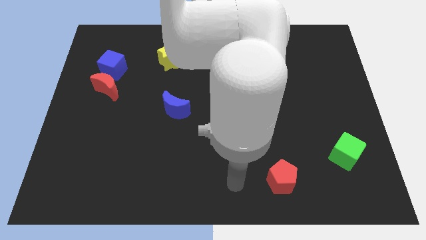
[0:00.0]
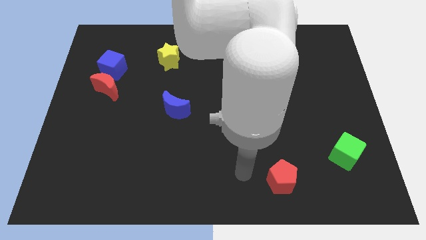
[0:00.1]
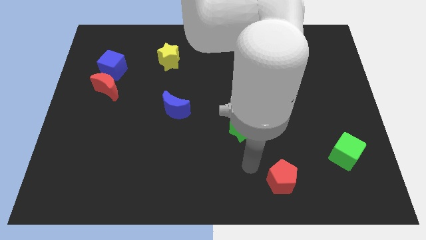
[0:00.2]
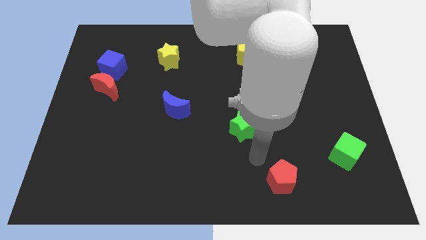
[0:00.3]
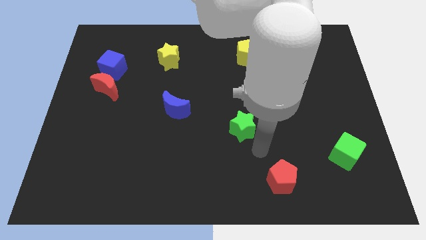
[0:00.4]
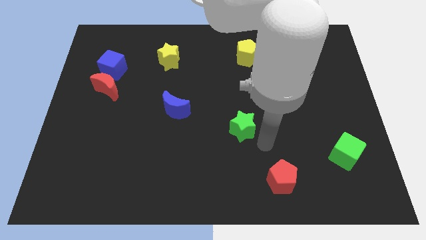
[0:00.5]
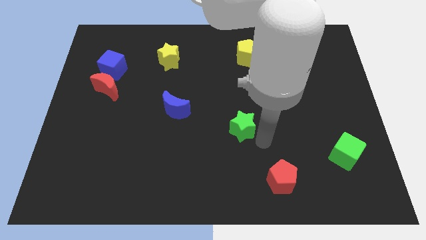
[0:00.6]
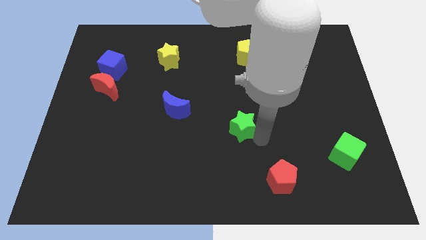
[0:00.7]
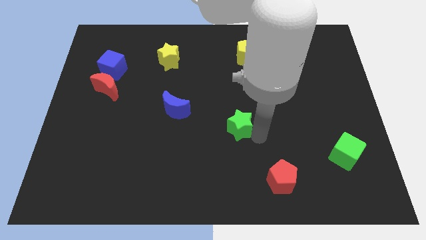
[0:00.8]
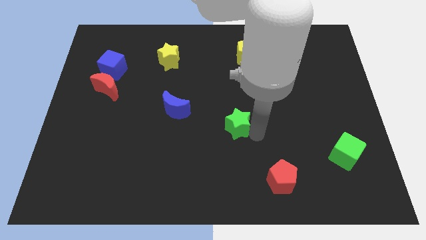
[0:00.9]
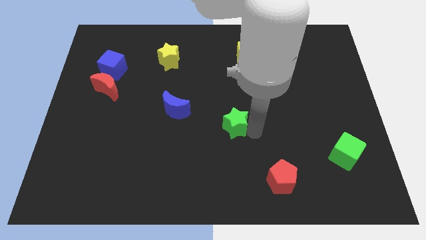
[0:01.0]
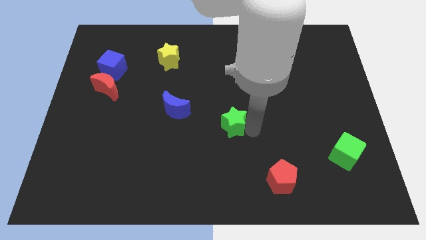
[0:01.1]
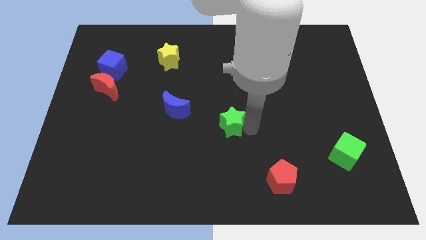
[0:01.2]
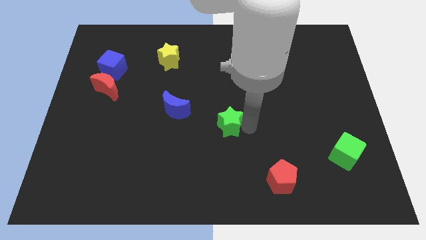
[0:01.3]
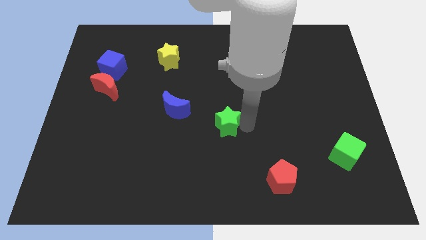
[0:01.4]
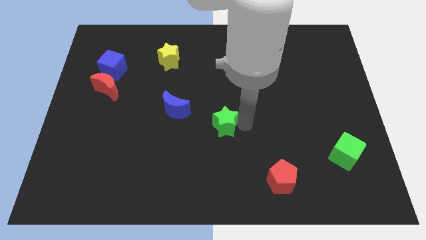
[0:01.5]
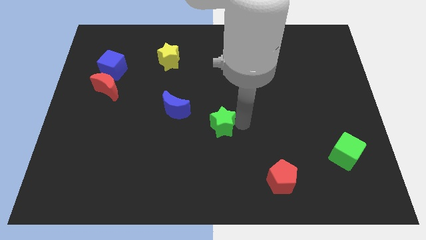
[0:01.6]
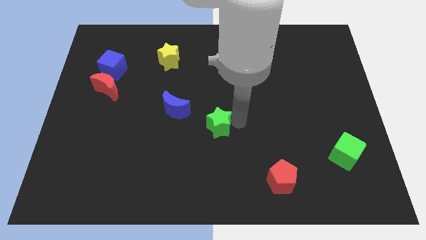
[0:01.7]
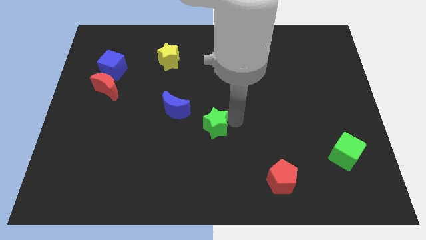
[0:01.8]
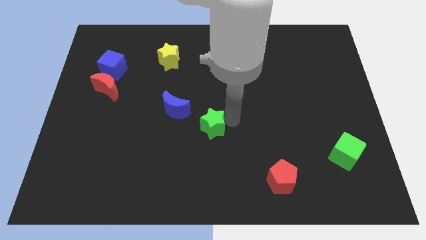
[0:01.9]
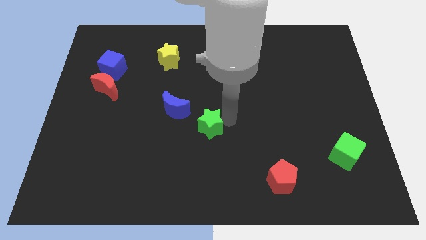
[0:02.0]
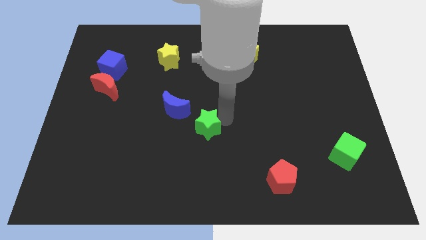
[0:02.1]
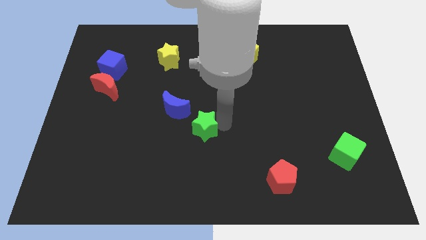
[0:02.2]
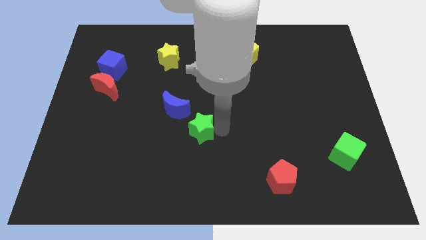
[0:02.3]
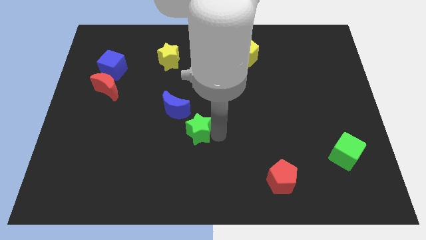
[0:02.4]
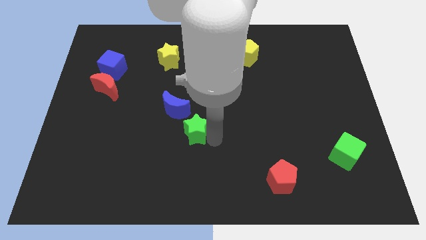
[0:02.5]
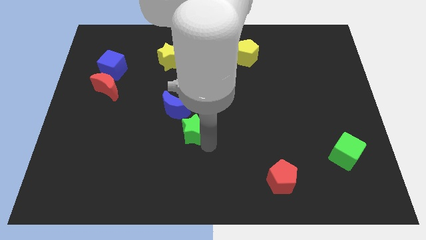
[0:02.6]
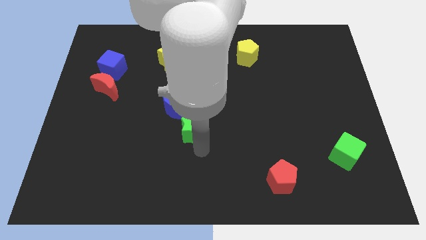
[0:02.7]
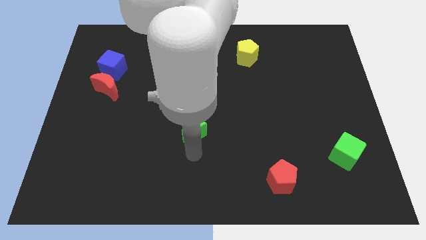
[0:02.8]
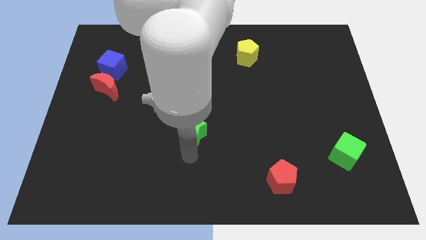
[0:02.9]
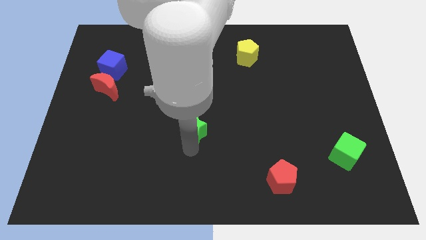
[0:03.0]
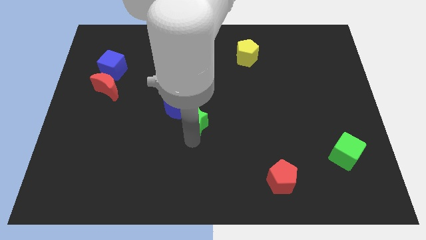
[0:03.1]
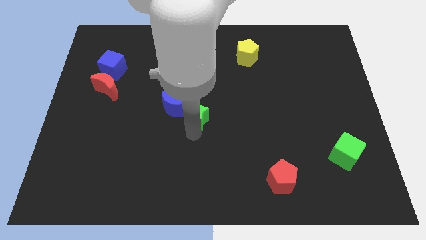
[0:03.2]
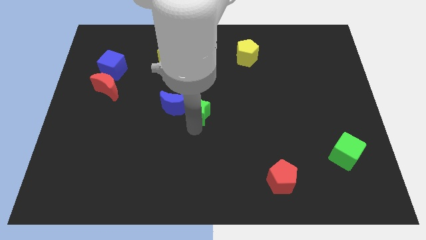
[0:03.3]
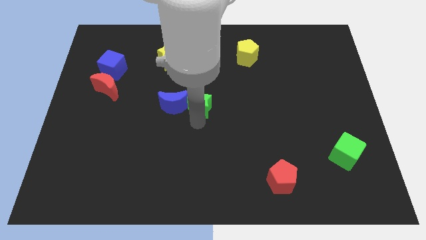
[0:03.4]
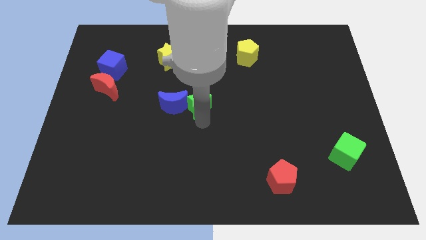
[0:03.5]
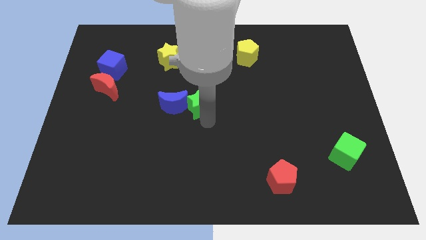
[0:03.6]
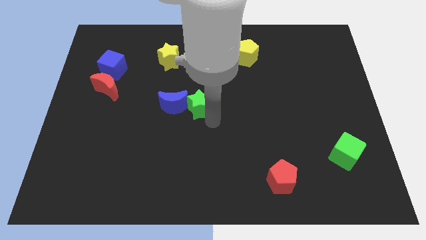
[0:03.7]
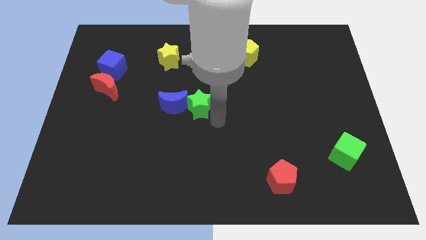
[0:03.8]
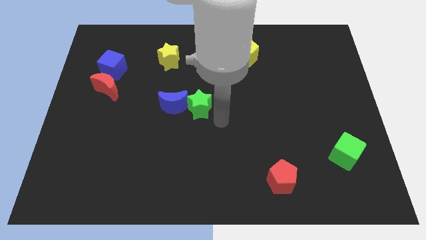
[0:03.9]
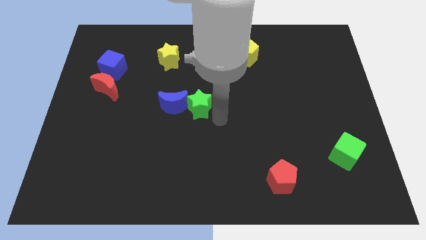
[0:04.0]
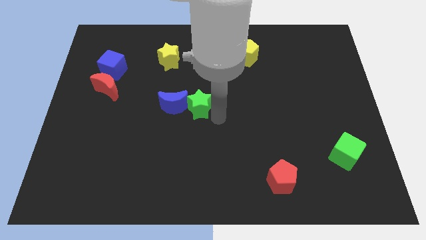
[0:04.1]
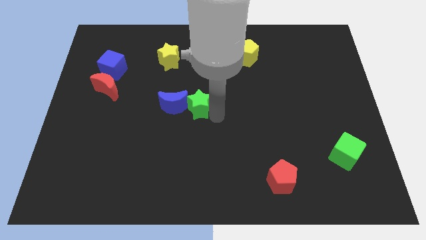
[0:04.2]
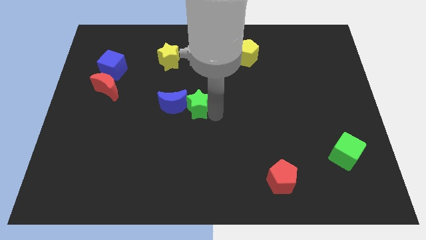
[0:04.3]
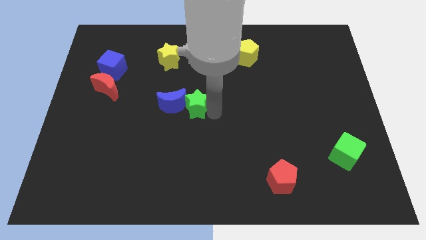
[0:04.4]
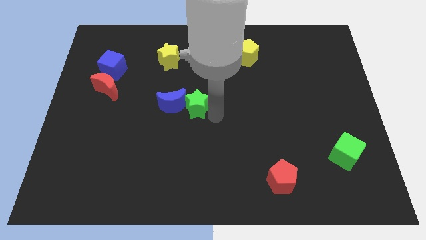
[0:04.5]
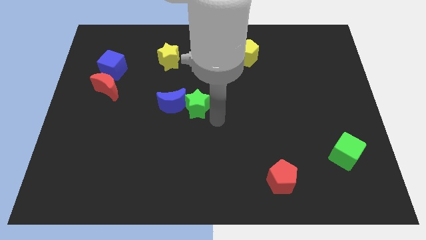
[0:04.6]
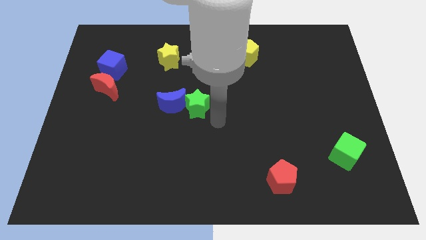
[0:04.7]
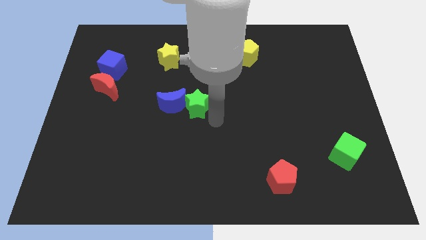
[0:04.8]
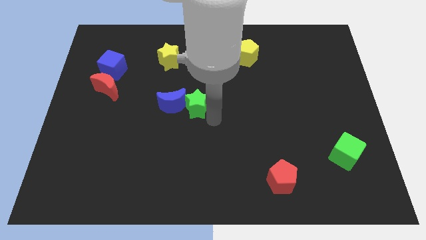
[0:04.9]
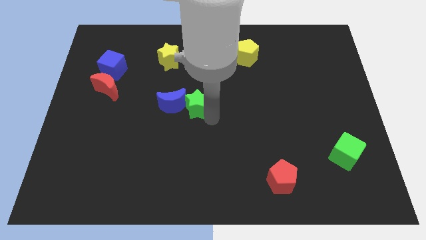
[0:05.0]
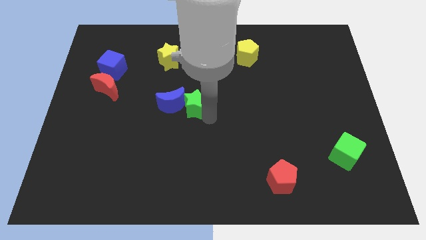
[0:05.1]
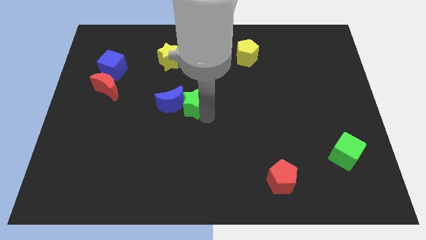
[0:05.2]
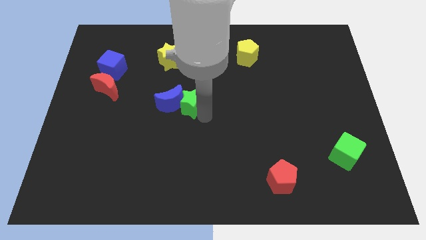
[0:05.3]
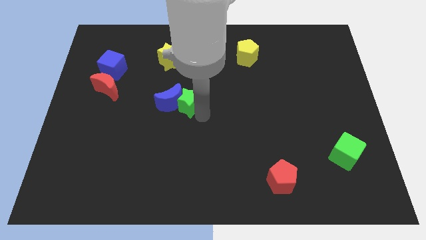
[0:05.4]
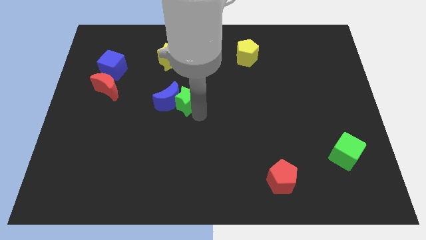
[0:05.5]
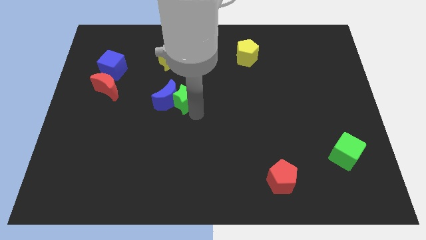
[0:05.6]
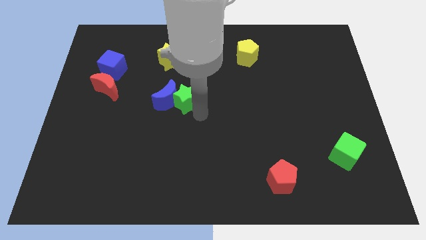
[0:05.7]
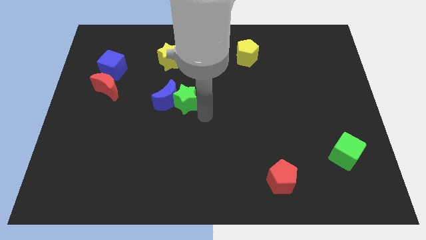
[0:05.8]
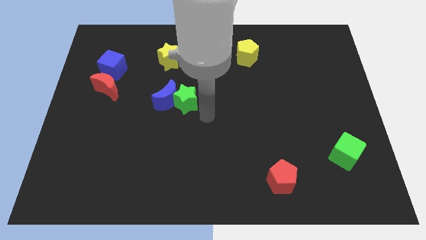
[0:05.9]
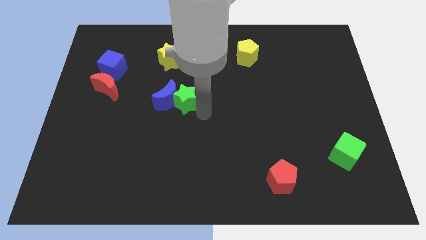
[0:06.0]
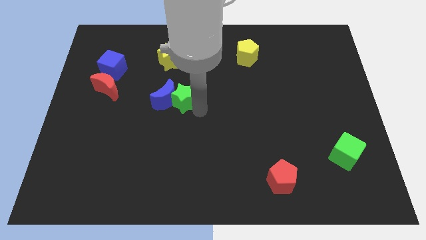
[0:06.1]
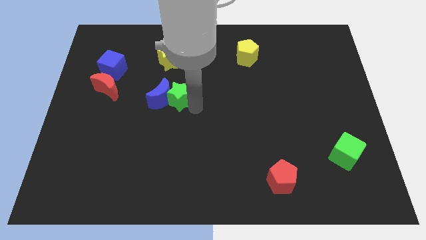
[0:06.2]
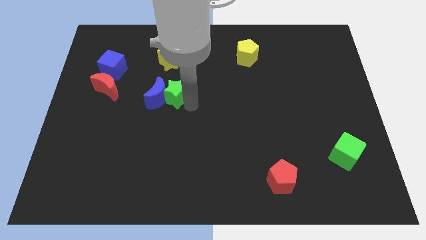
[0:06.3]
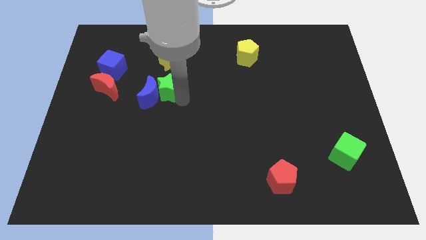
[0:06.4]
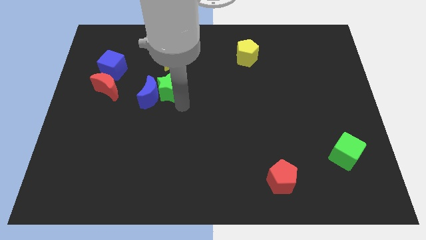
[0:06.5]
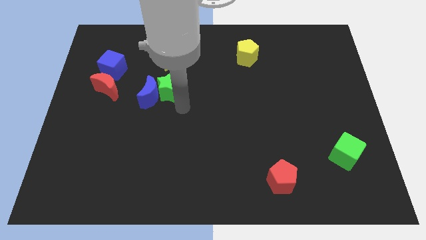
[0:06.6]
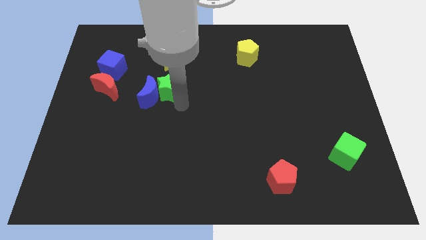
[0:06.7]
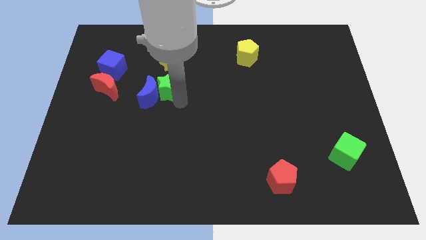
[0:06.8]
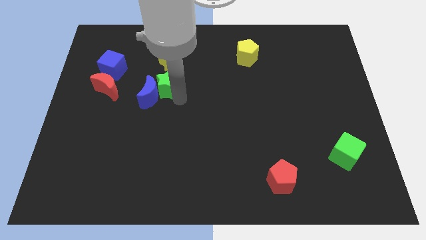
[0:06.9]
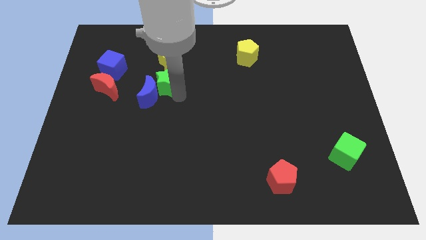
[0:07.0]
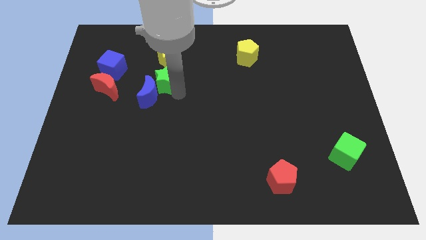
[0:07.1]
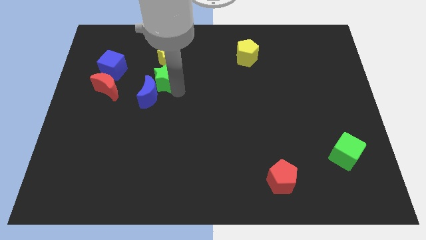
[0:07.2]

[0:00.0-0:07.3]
push the green star right of the blue cube
